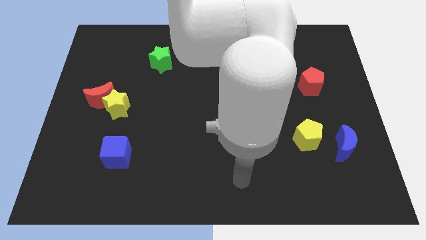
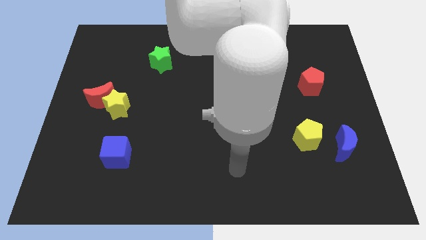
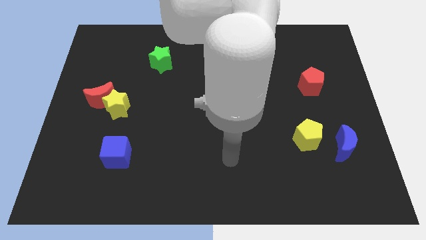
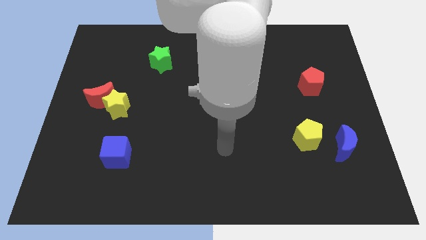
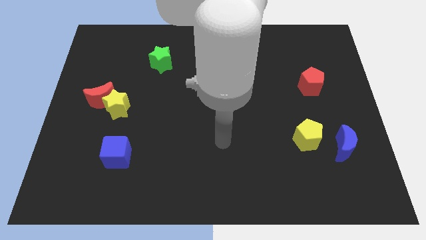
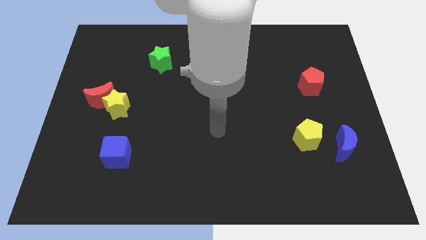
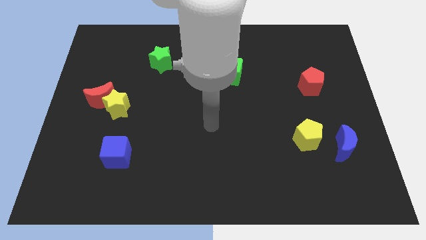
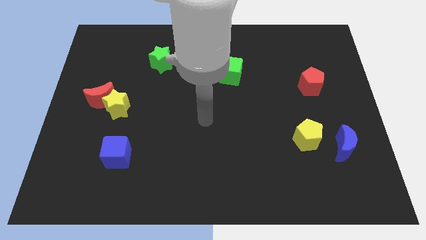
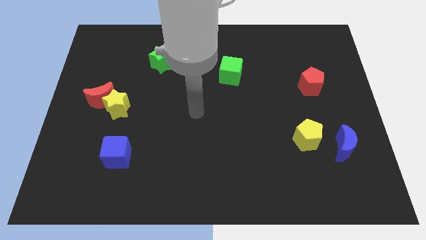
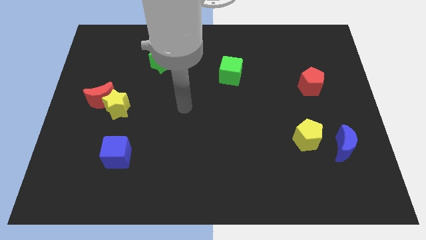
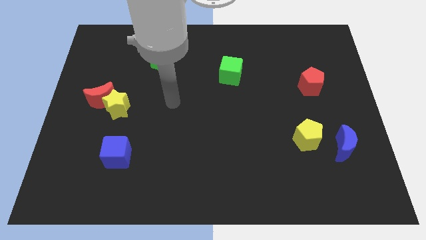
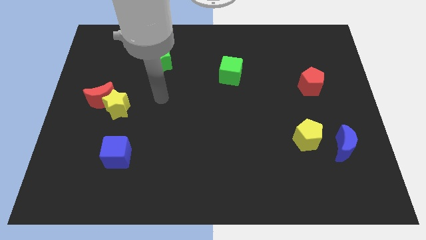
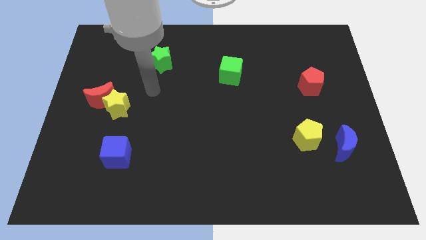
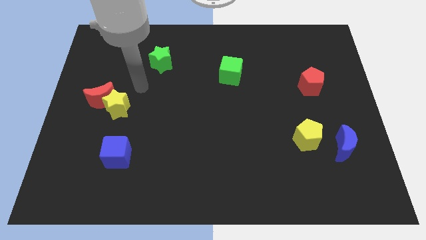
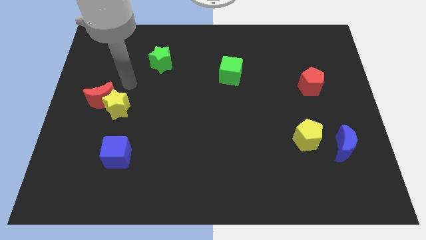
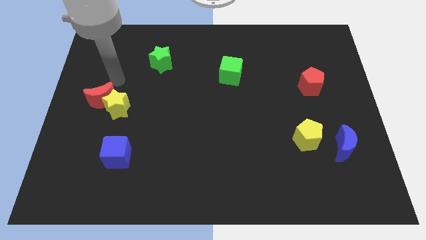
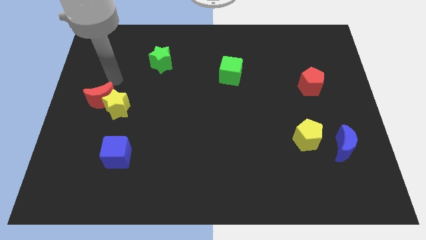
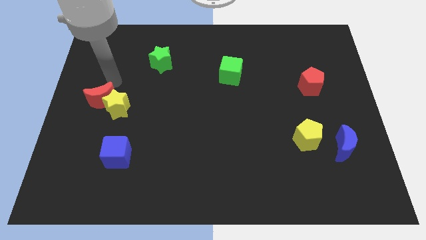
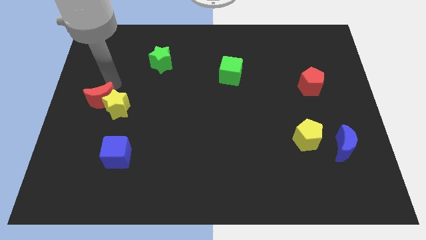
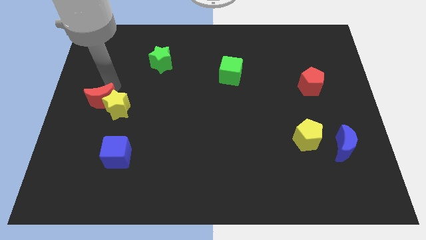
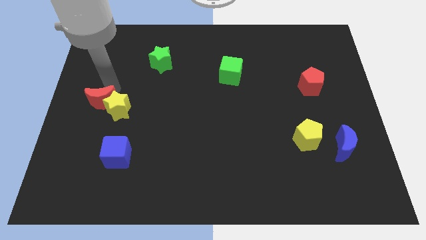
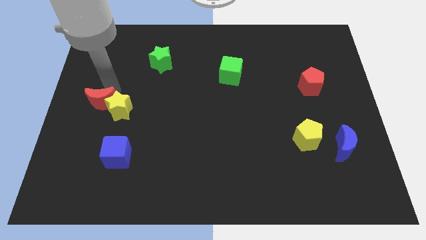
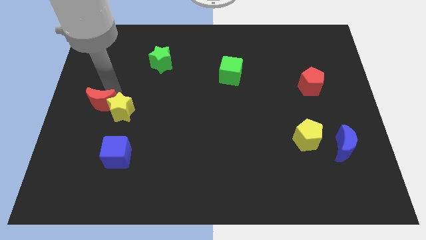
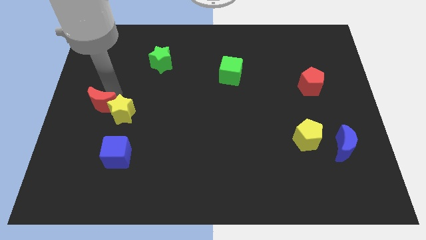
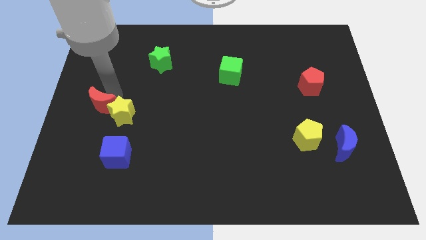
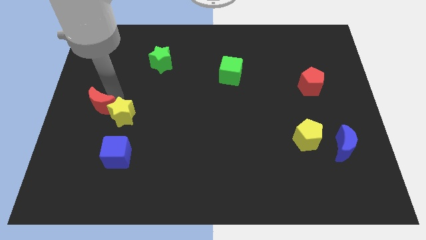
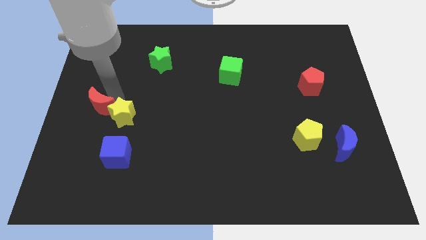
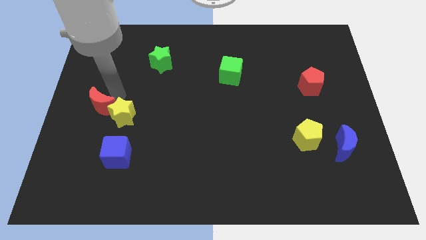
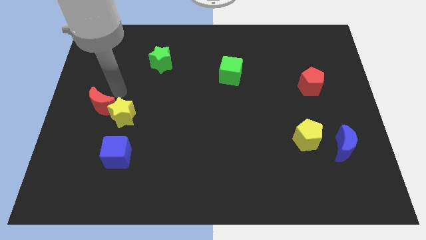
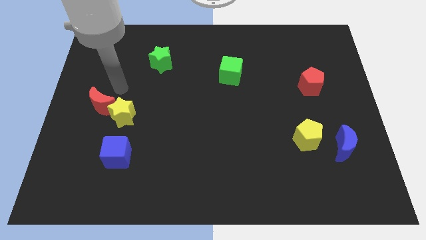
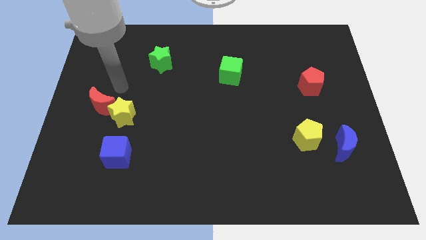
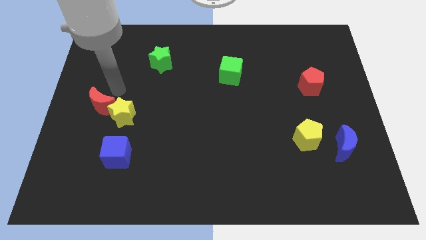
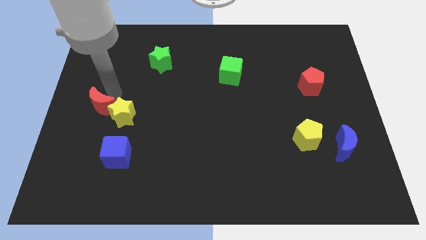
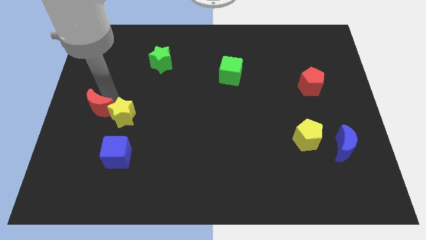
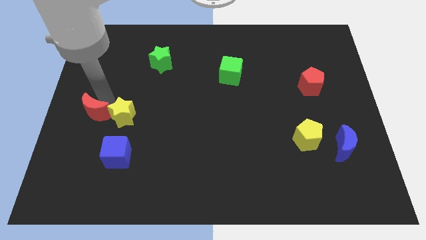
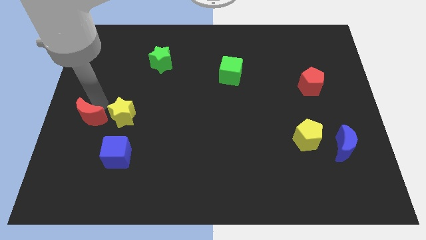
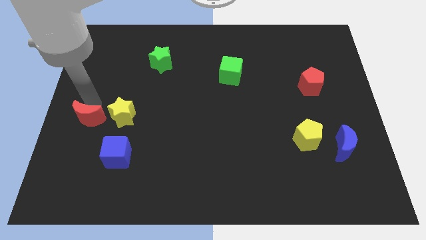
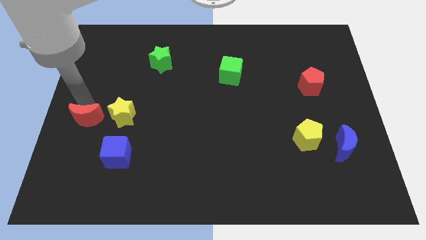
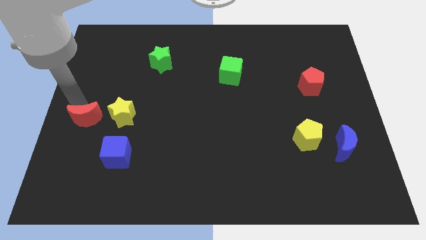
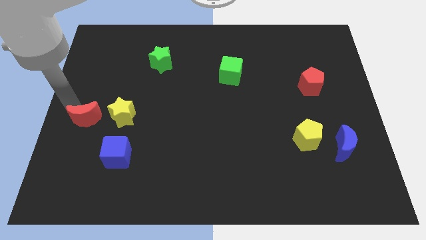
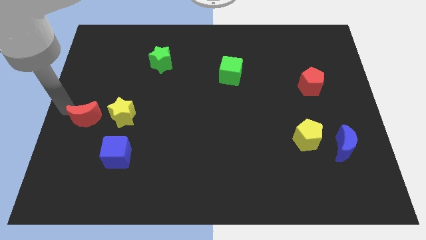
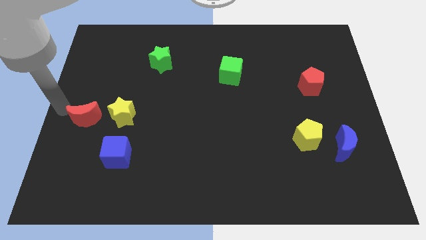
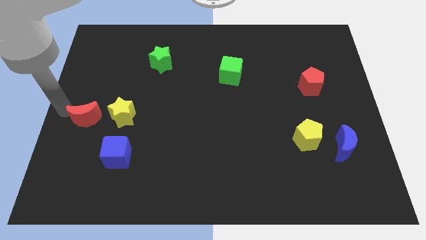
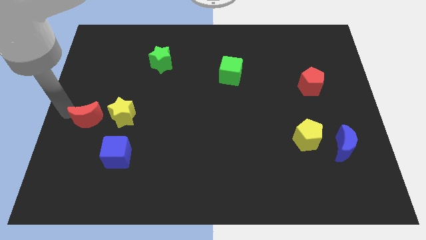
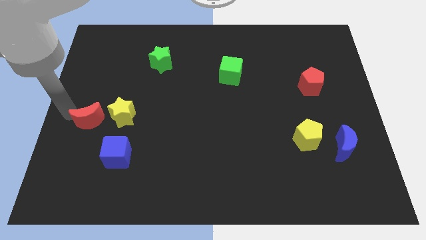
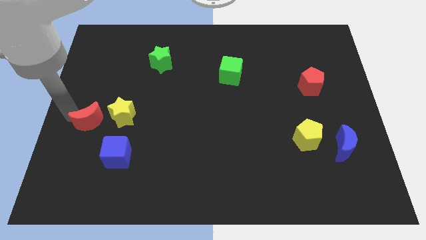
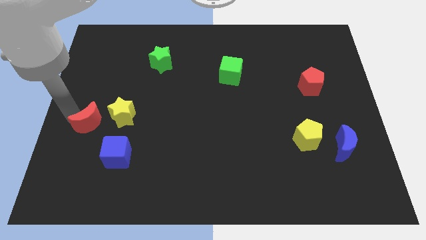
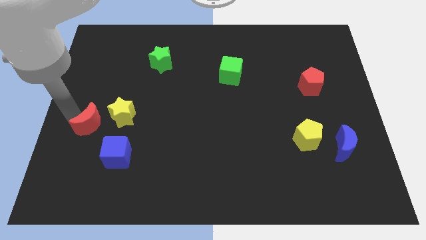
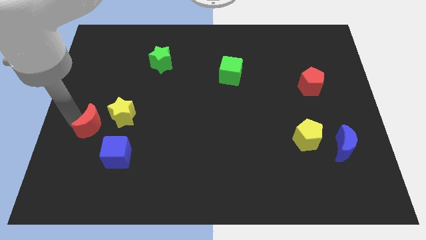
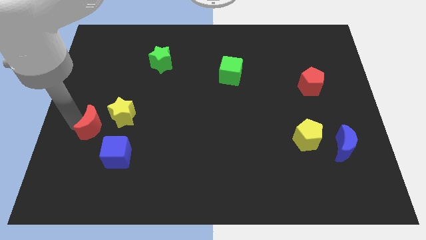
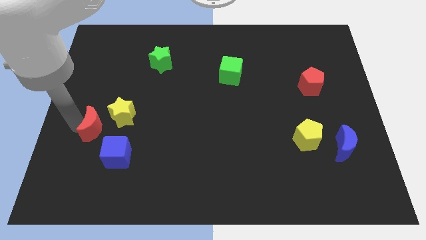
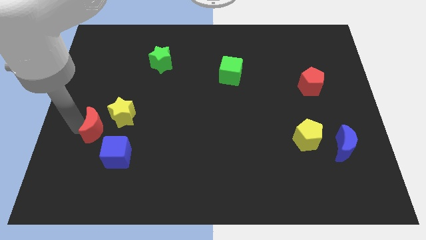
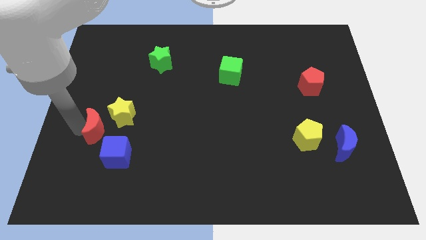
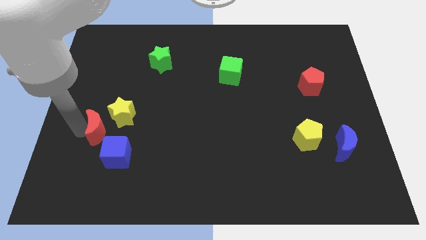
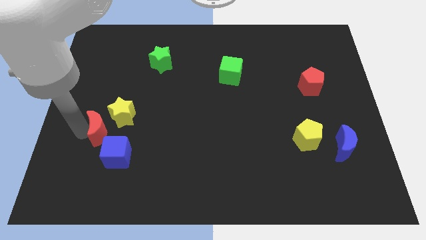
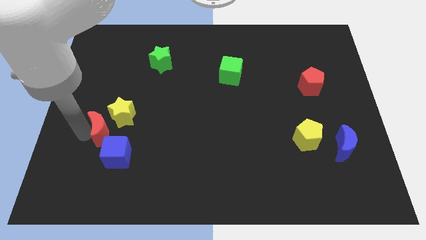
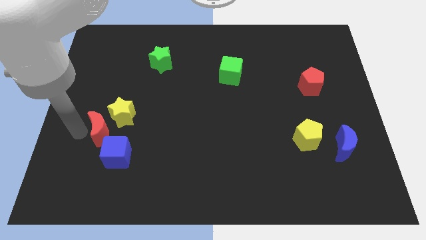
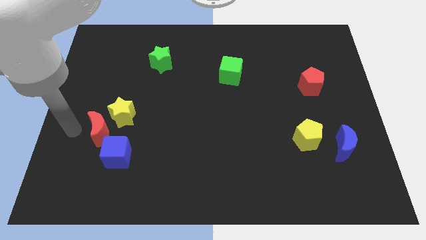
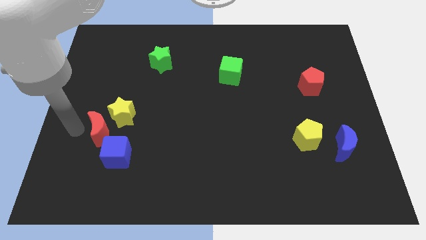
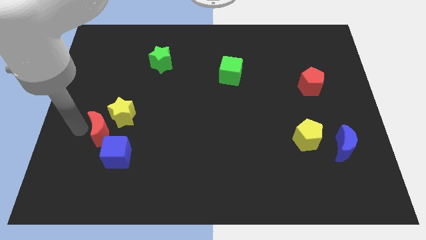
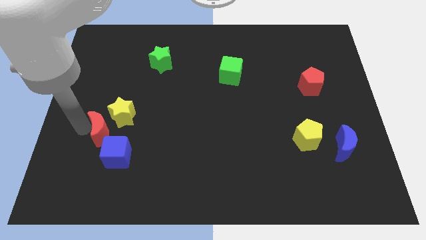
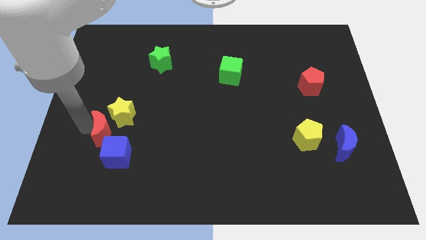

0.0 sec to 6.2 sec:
move the red moon a little bit downwards and to the right

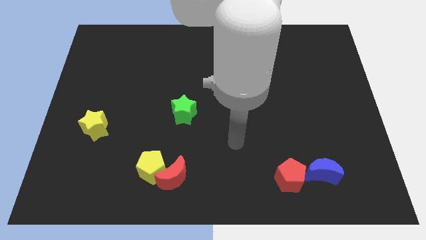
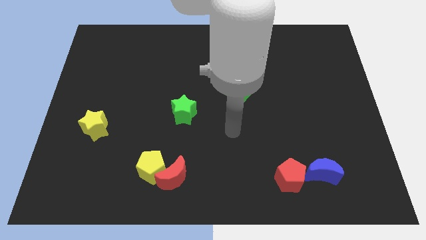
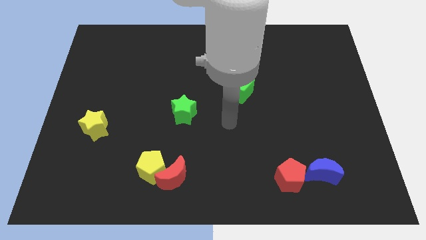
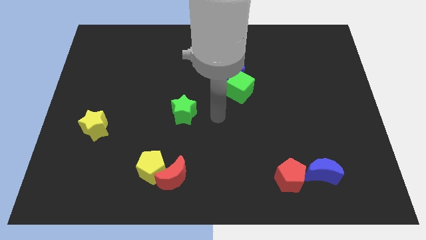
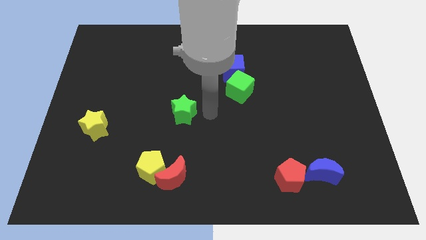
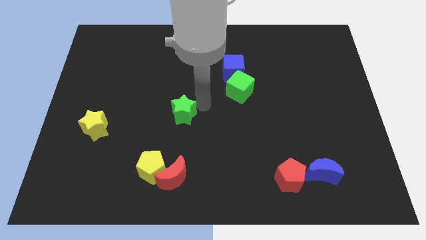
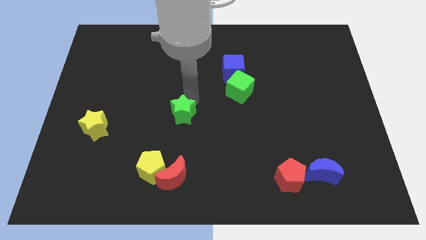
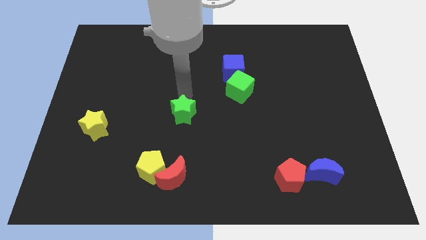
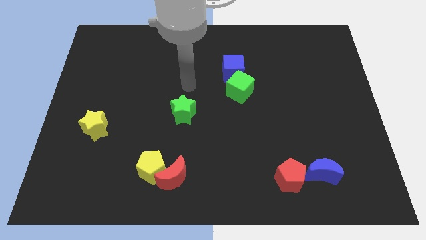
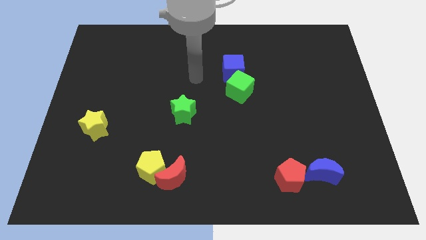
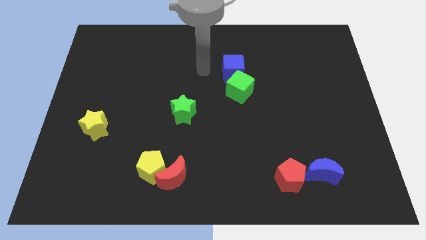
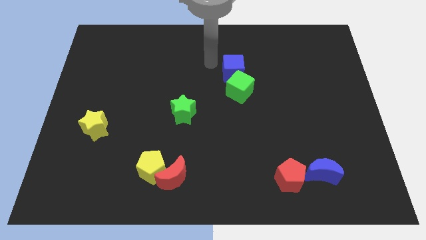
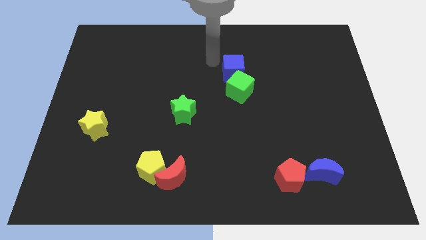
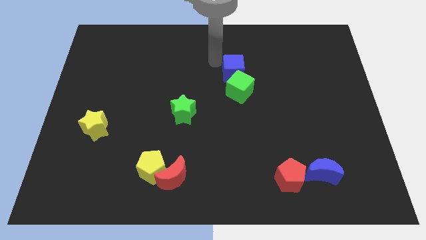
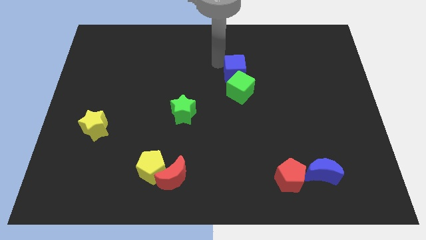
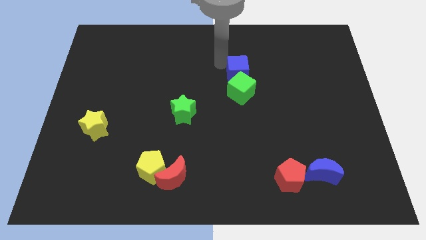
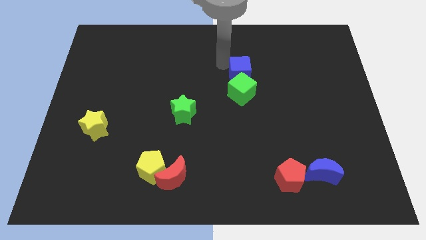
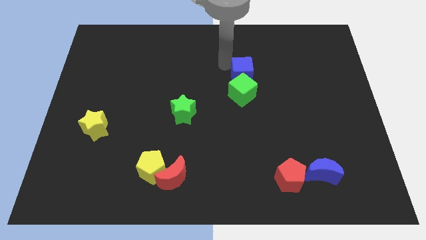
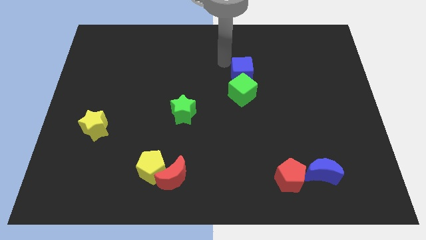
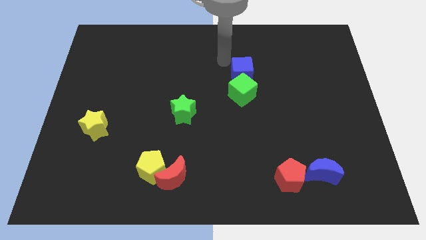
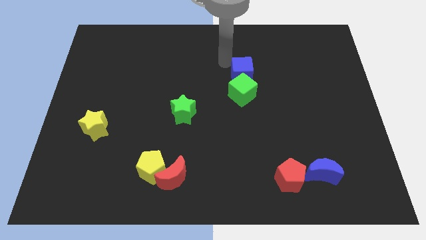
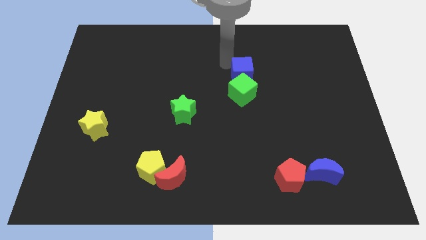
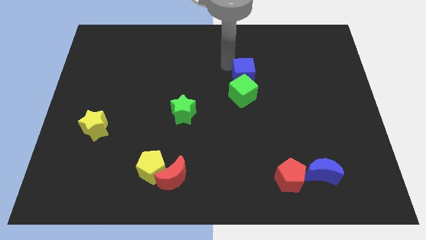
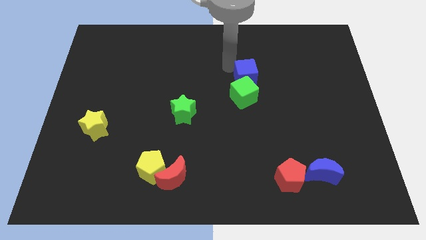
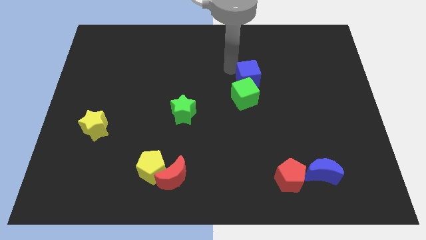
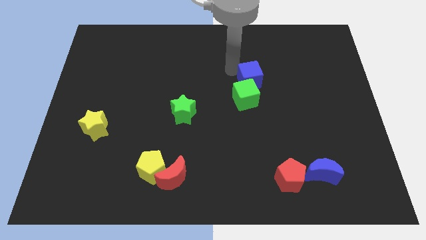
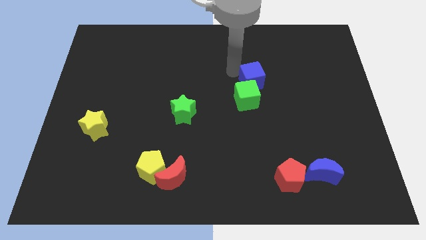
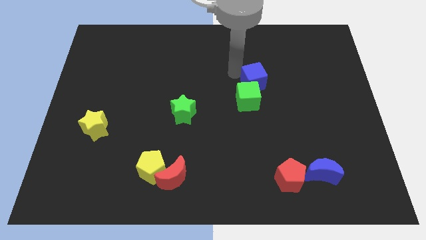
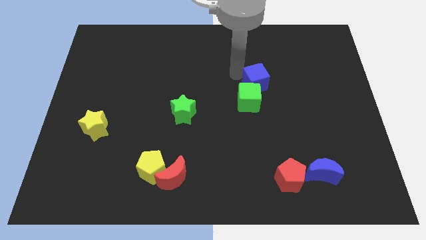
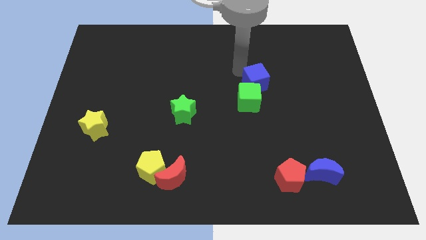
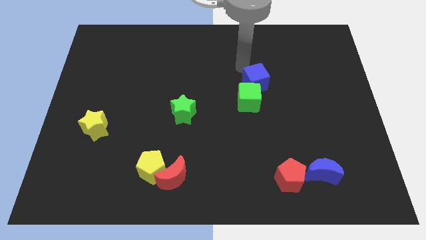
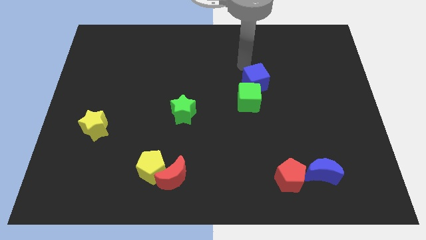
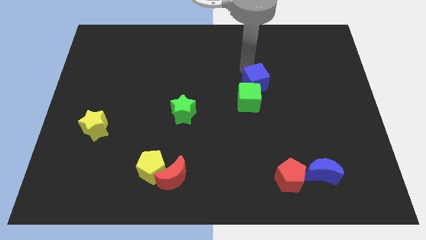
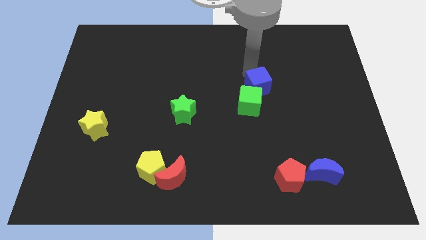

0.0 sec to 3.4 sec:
move the blue cube down and then right somewhat
